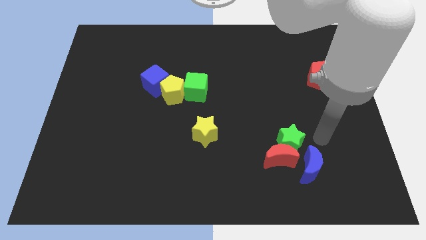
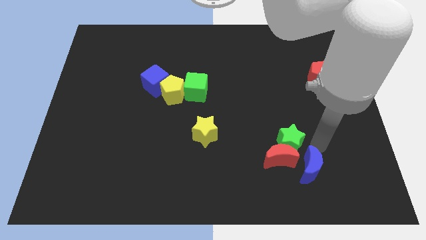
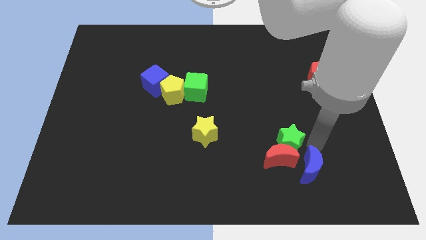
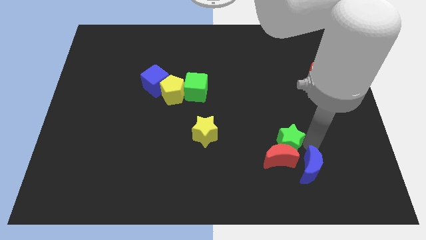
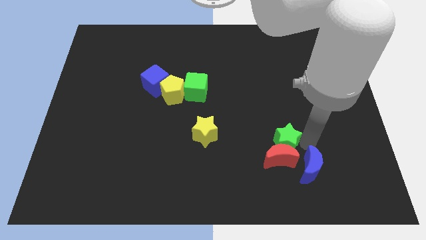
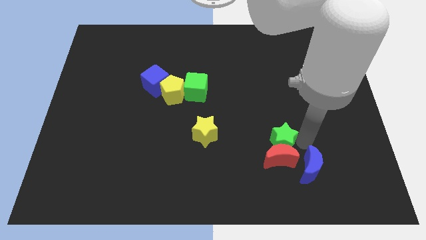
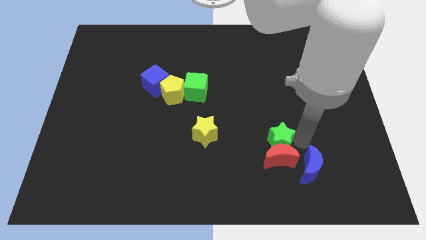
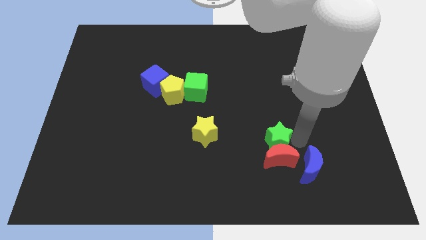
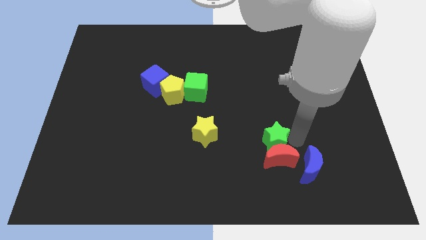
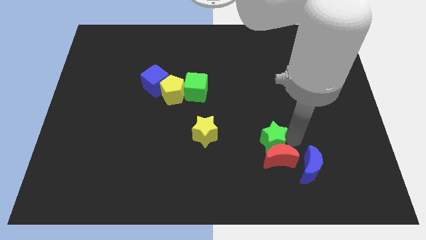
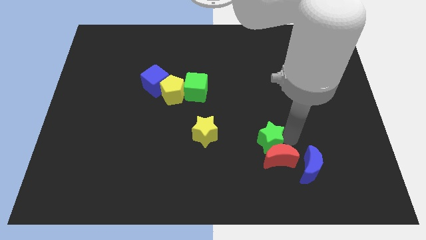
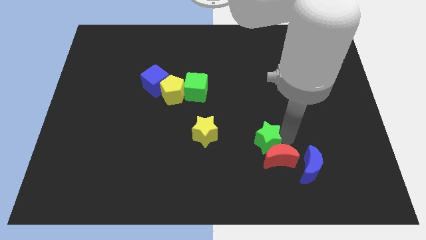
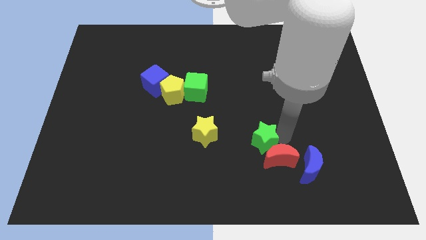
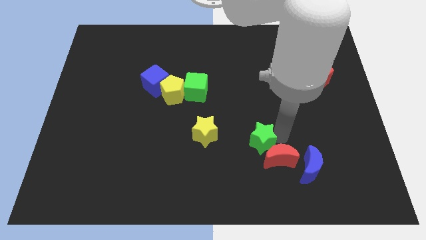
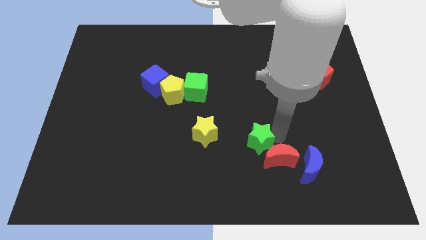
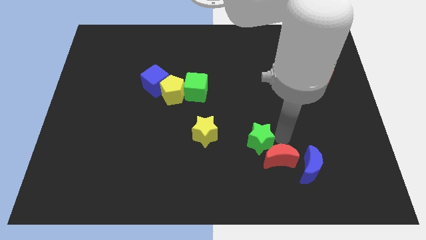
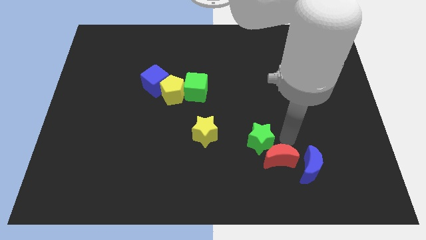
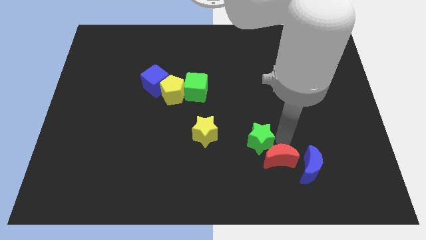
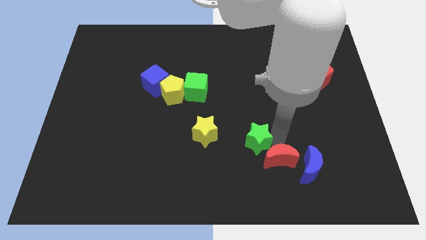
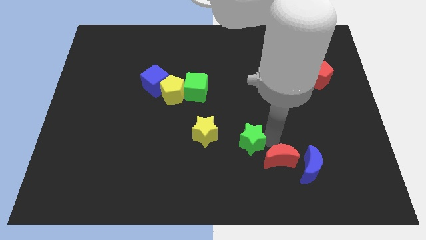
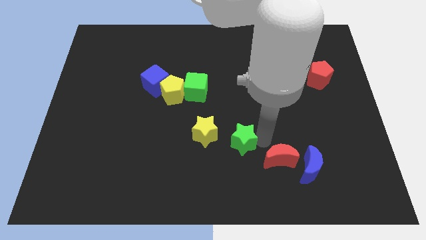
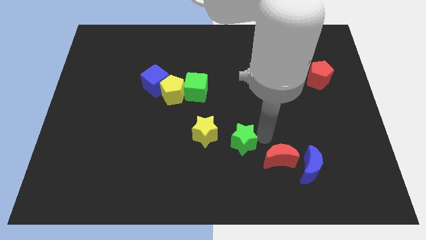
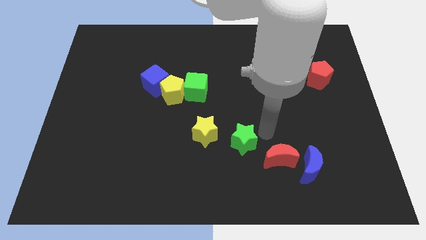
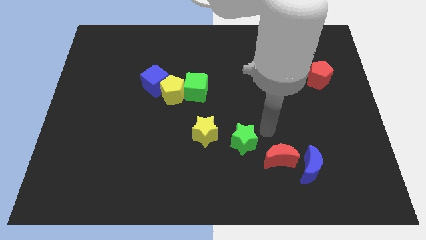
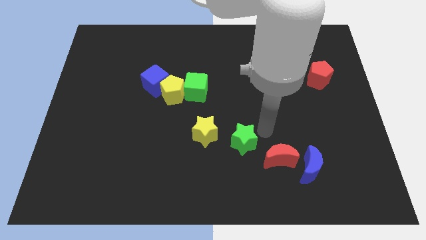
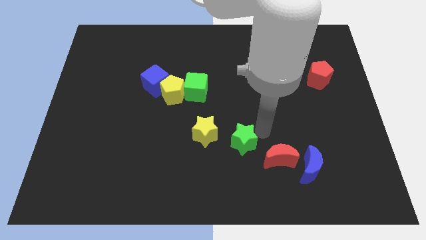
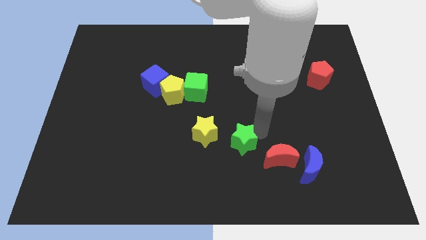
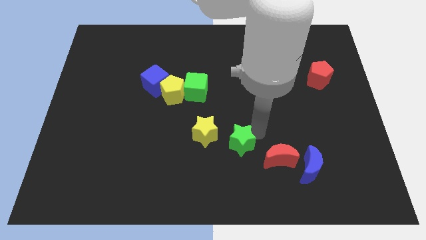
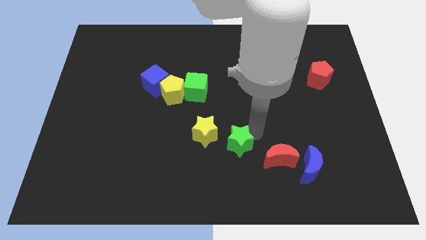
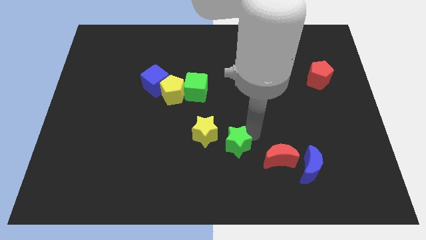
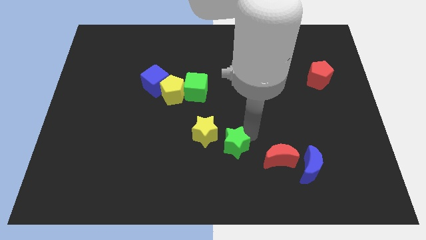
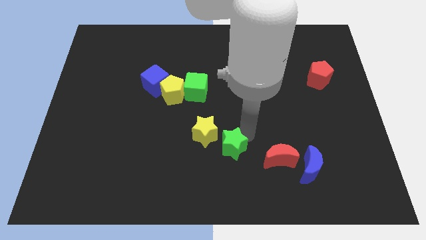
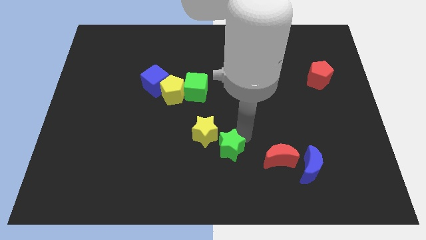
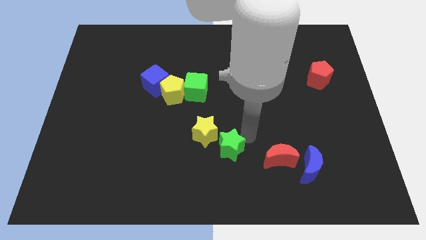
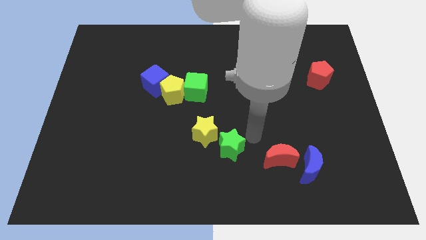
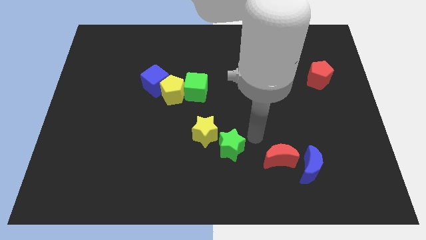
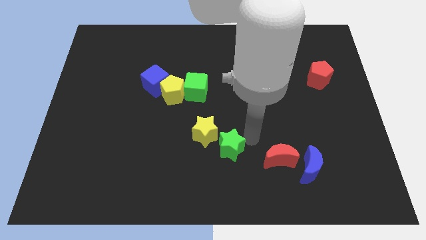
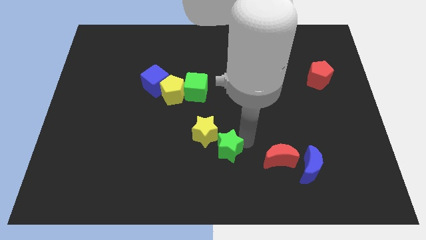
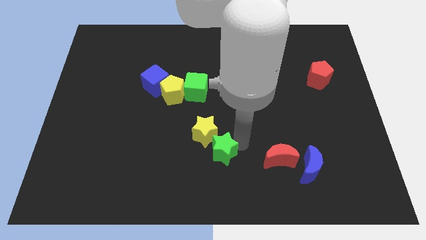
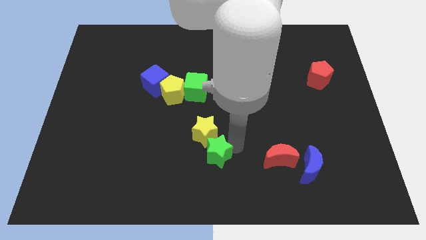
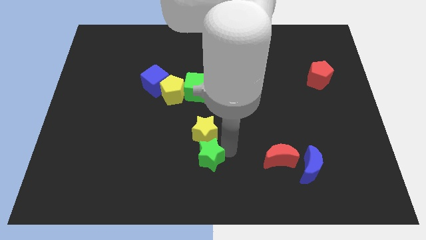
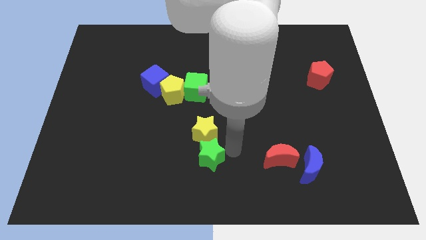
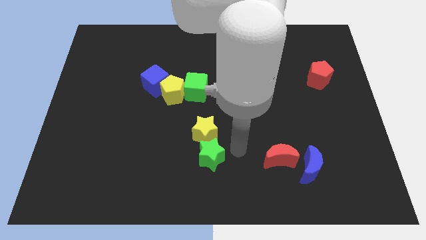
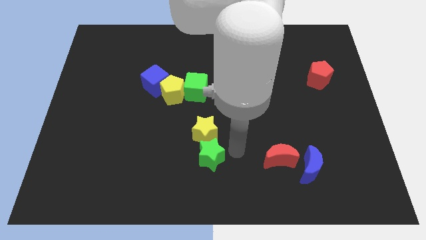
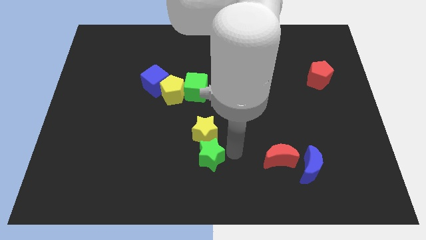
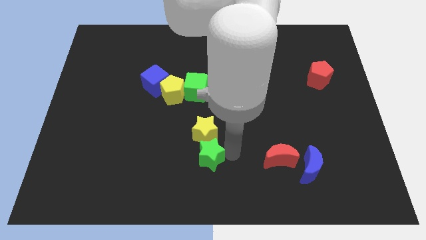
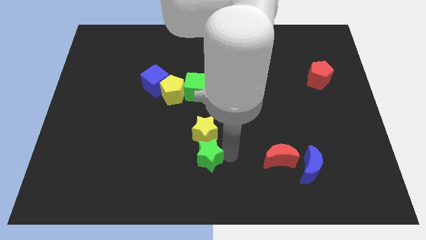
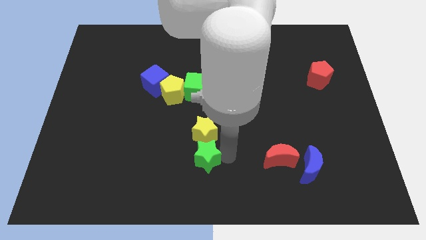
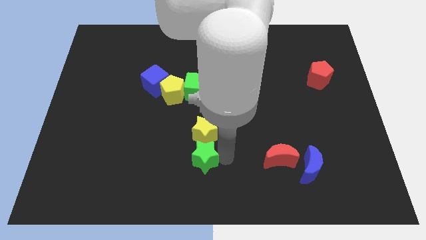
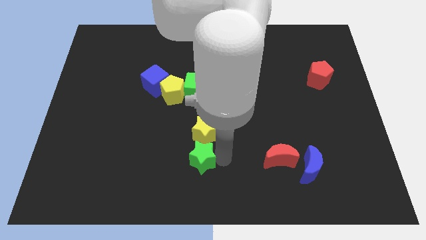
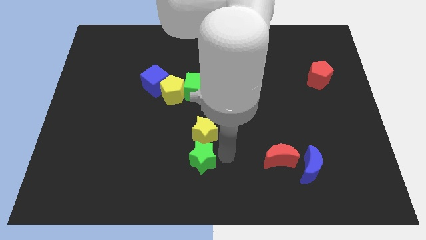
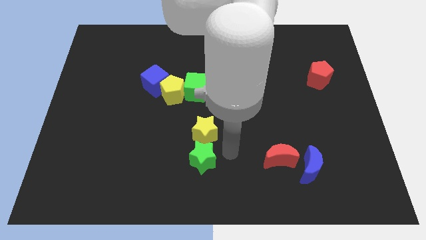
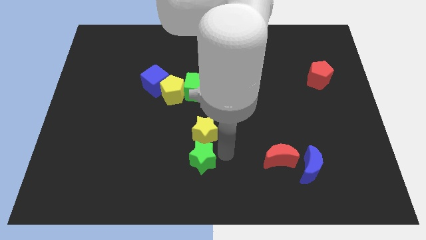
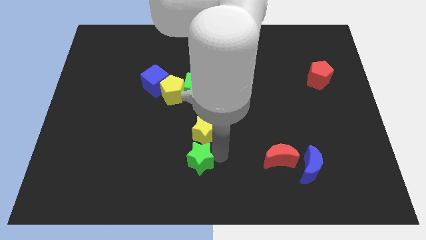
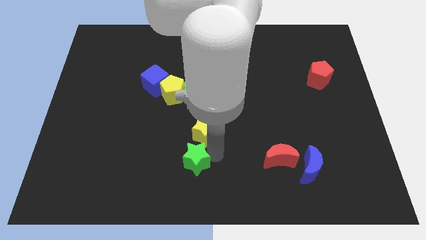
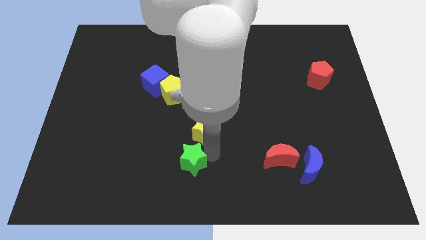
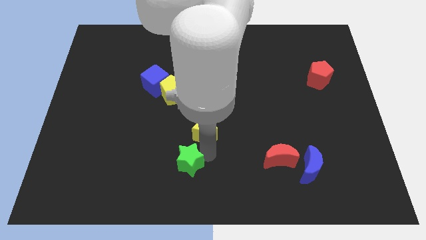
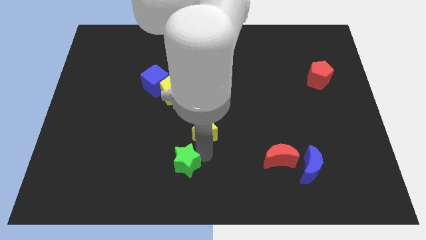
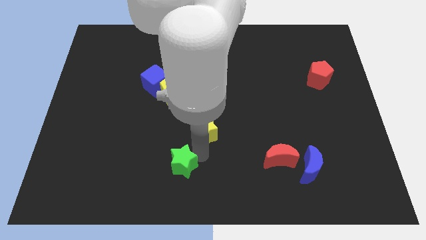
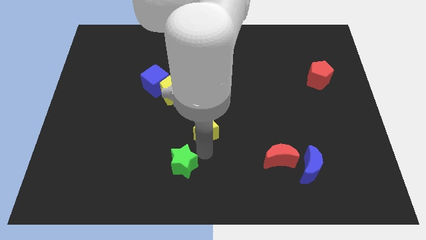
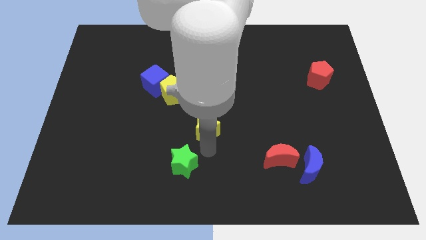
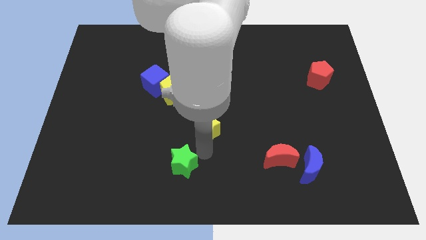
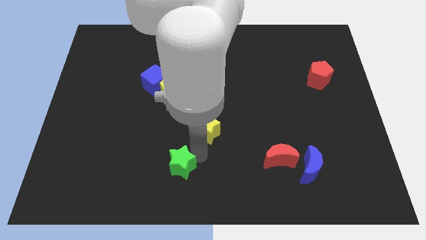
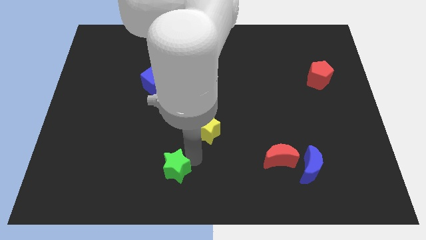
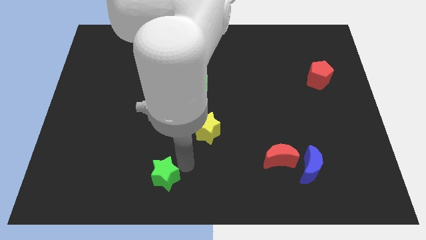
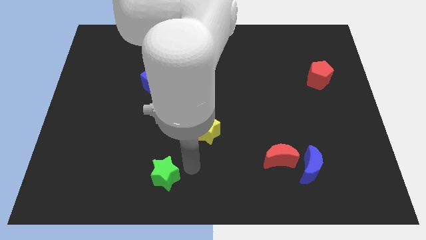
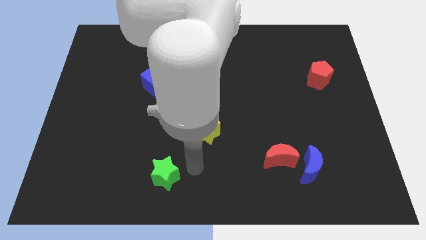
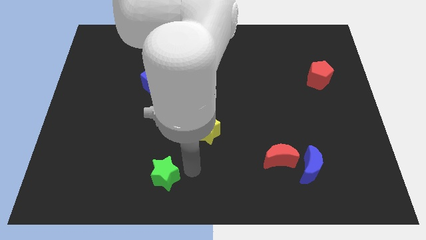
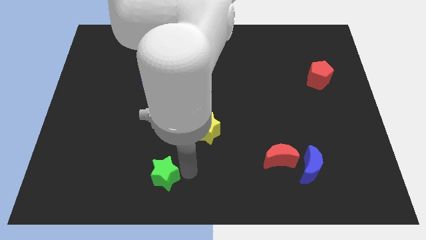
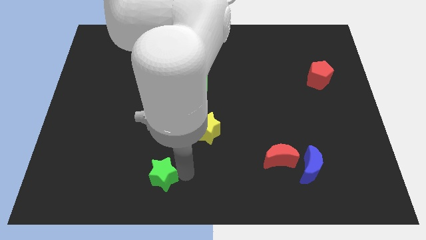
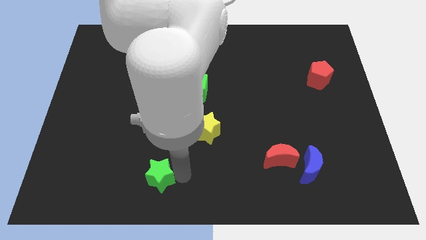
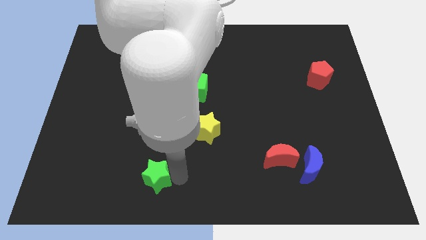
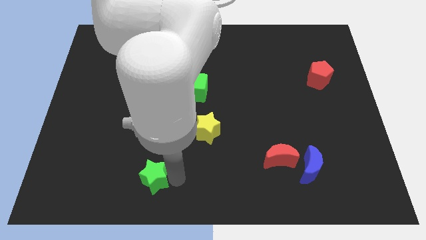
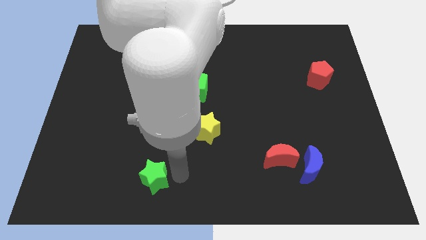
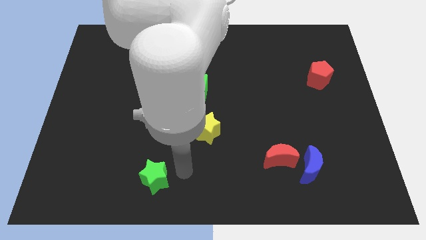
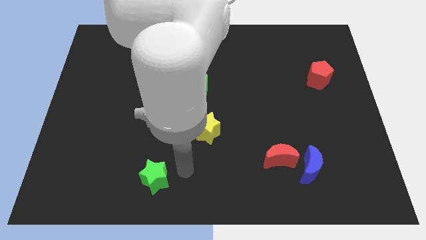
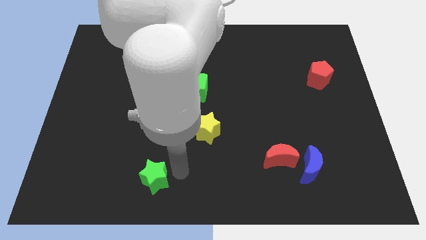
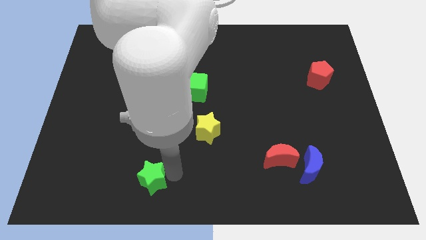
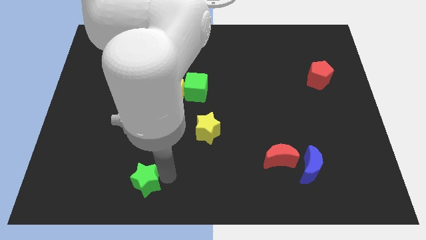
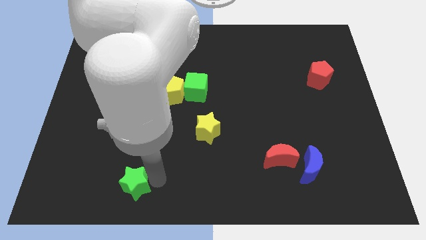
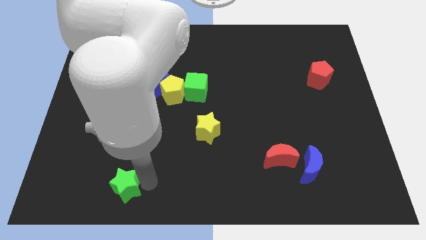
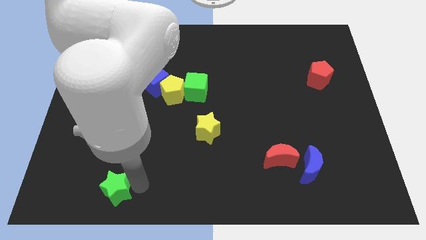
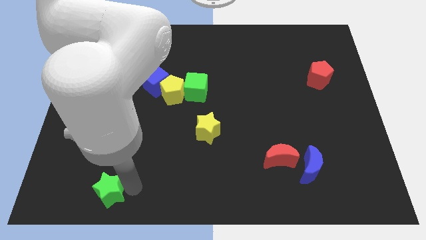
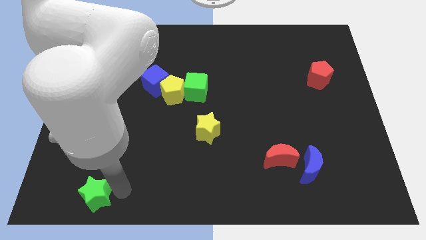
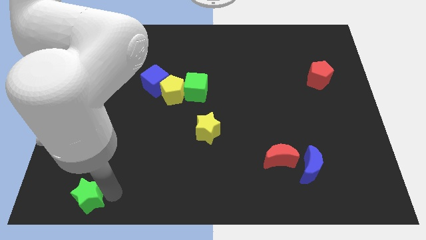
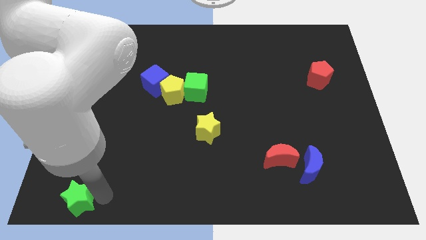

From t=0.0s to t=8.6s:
slide the green star to the bottom left of the board
